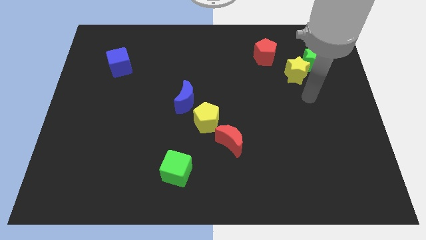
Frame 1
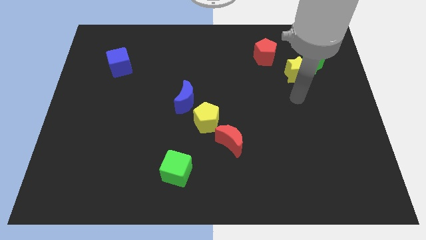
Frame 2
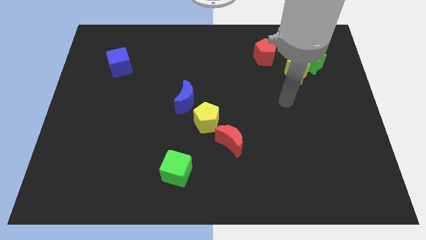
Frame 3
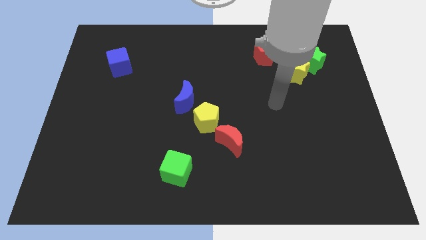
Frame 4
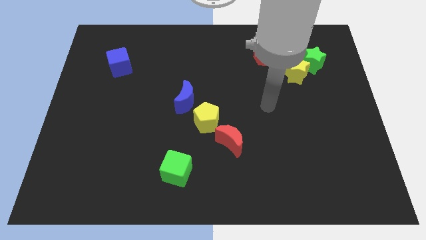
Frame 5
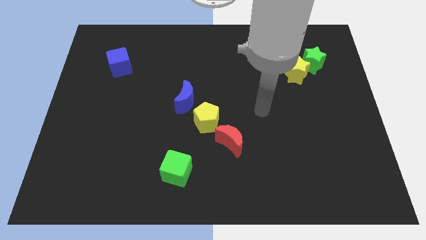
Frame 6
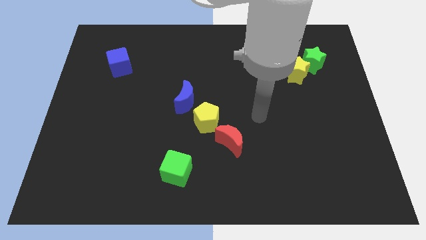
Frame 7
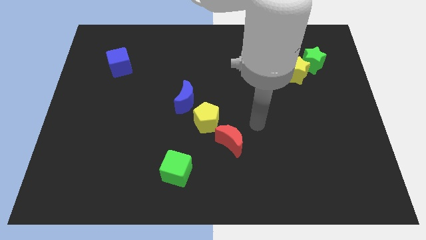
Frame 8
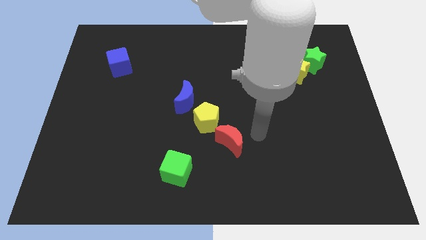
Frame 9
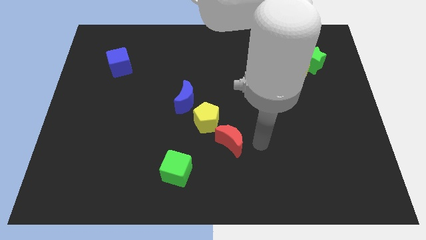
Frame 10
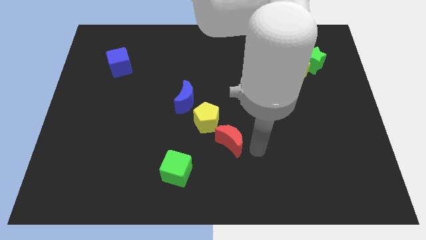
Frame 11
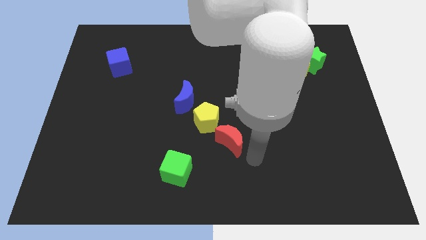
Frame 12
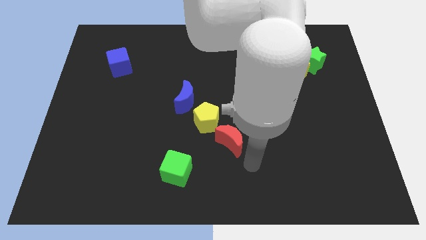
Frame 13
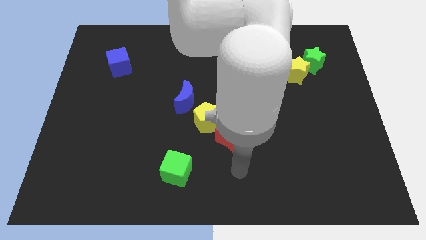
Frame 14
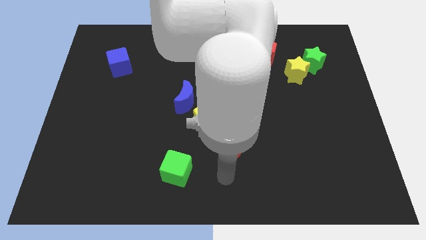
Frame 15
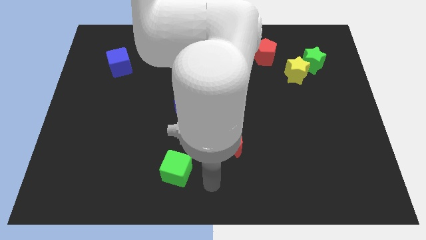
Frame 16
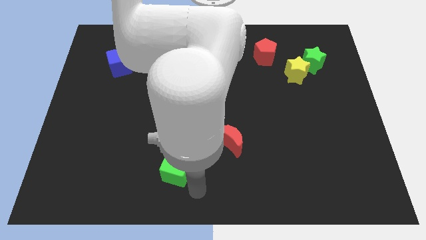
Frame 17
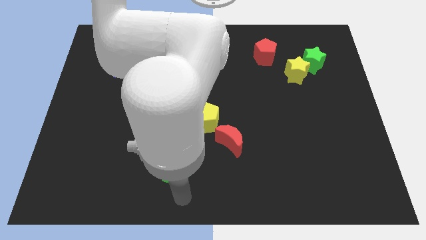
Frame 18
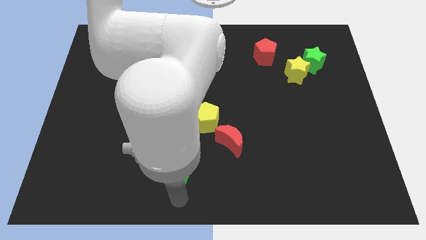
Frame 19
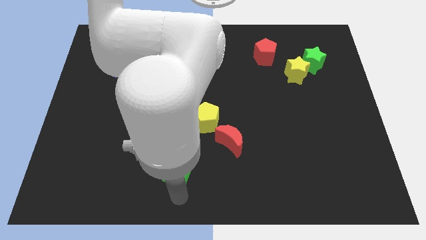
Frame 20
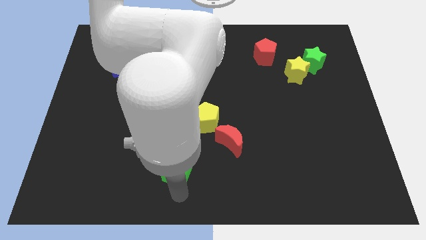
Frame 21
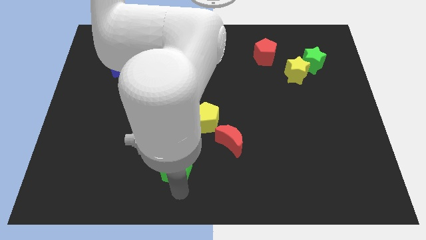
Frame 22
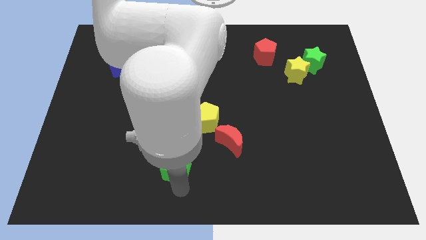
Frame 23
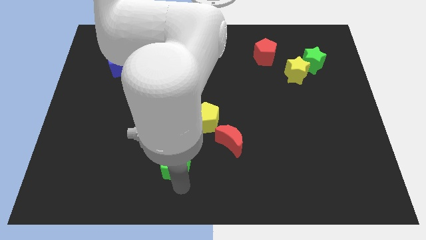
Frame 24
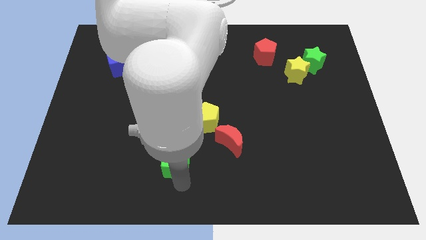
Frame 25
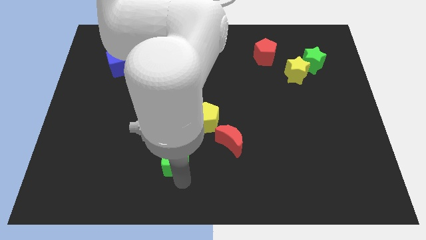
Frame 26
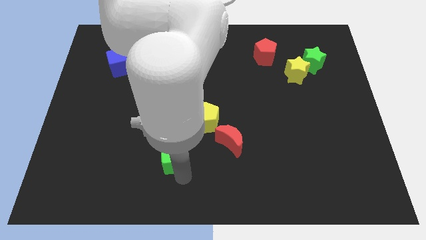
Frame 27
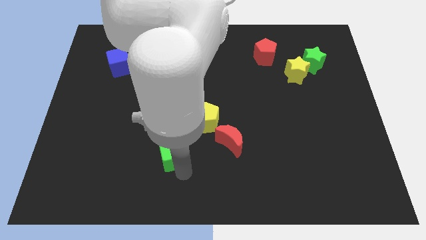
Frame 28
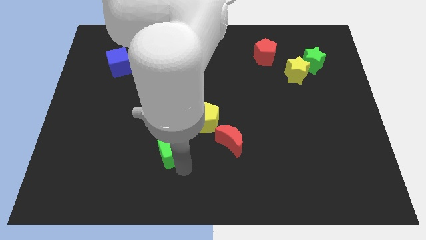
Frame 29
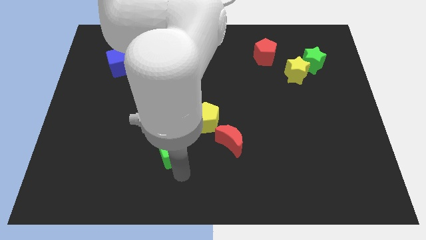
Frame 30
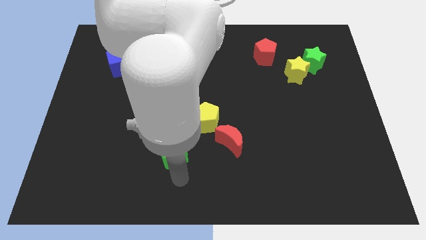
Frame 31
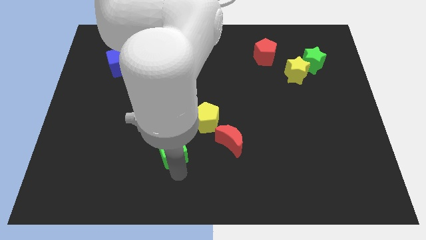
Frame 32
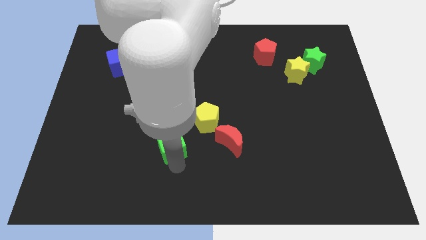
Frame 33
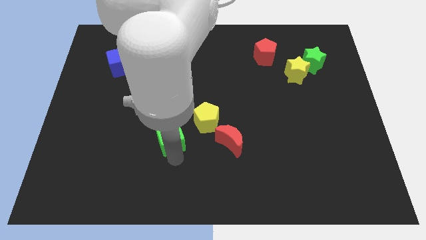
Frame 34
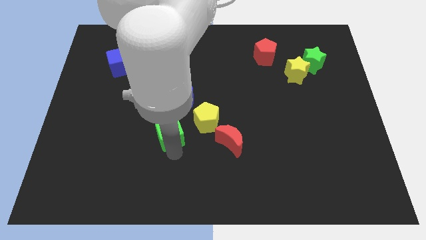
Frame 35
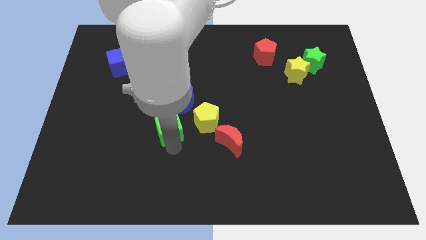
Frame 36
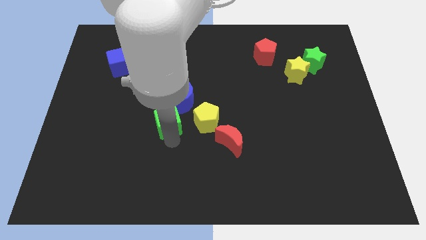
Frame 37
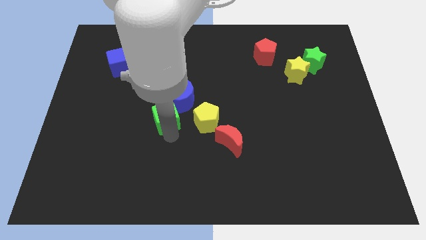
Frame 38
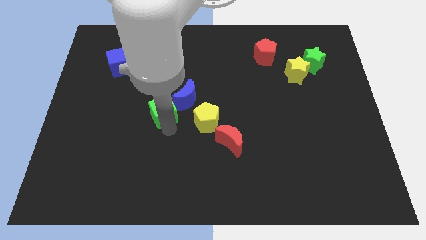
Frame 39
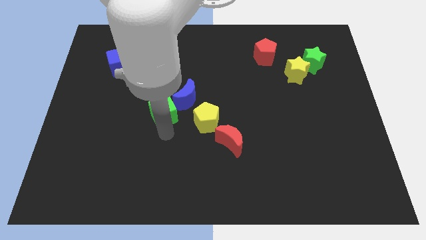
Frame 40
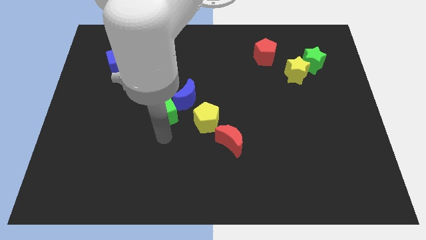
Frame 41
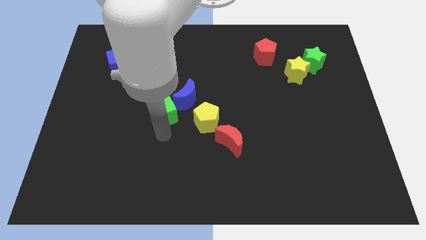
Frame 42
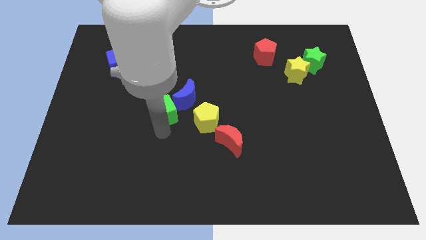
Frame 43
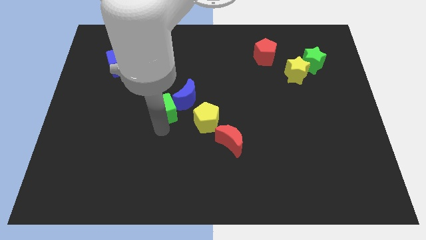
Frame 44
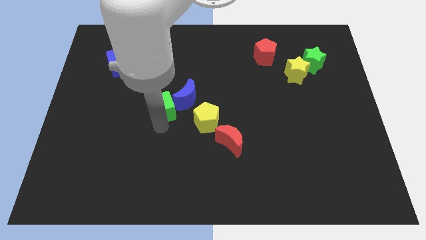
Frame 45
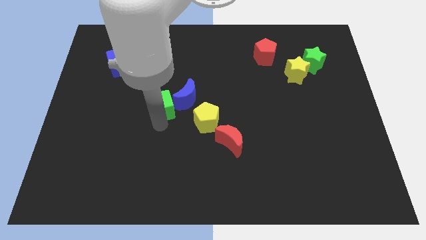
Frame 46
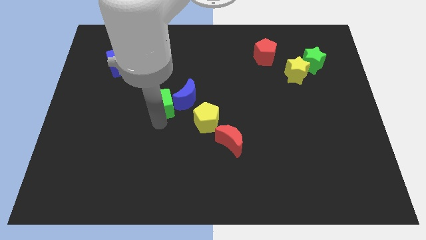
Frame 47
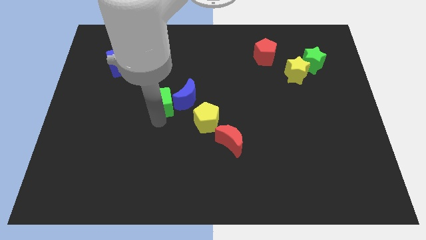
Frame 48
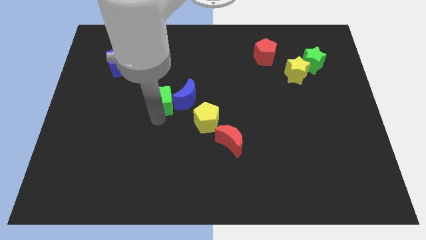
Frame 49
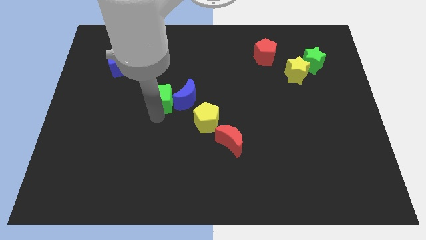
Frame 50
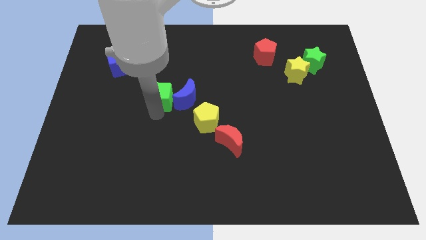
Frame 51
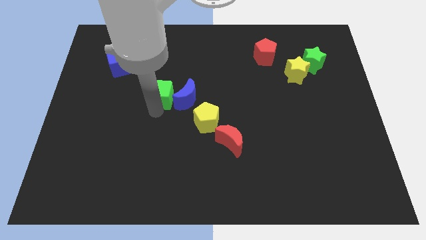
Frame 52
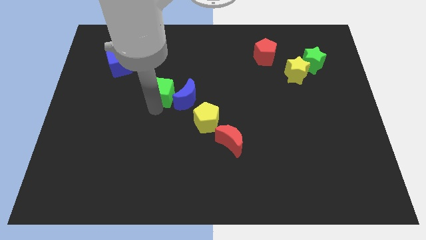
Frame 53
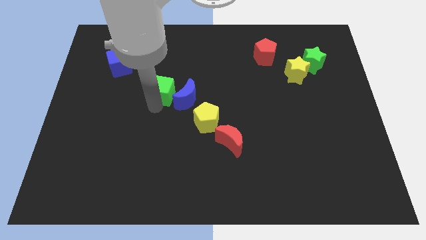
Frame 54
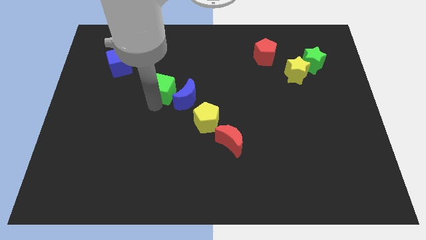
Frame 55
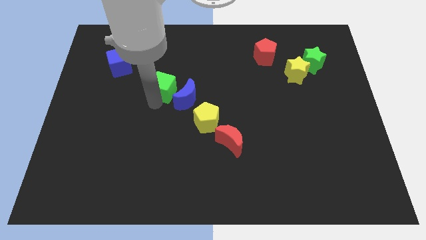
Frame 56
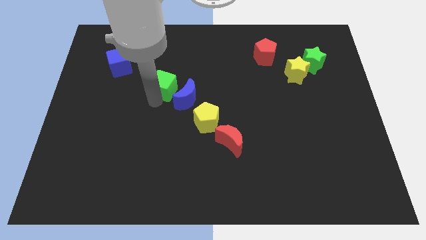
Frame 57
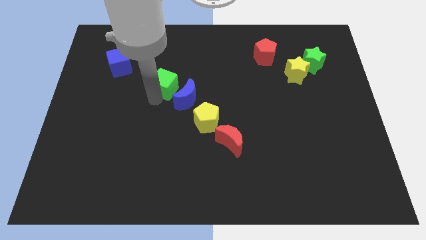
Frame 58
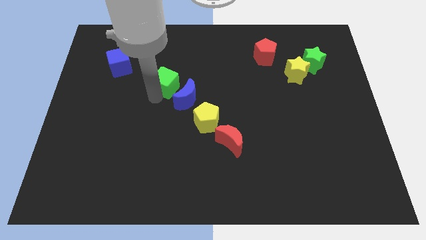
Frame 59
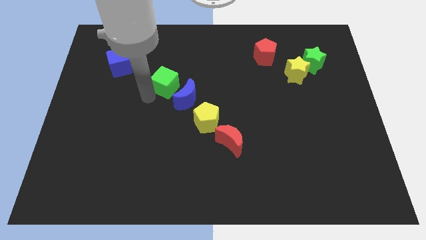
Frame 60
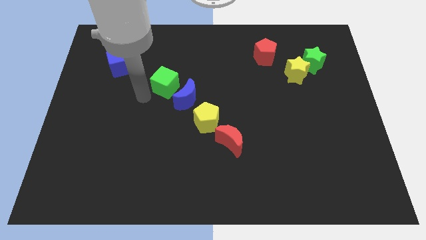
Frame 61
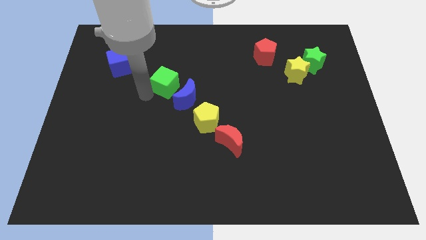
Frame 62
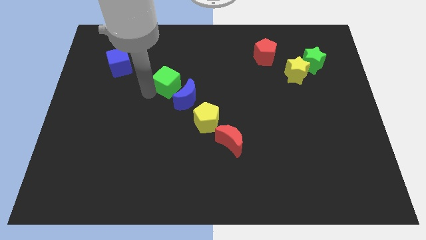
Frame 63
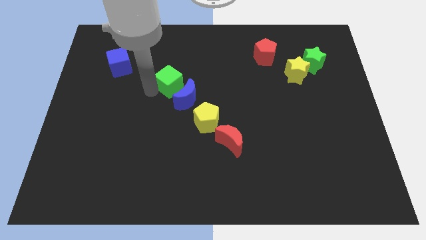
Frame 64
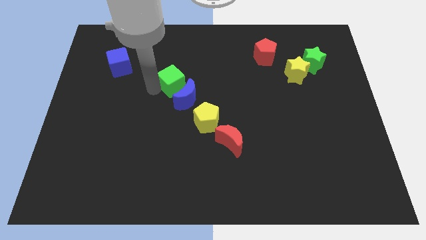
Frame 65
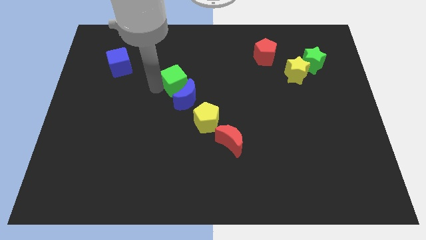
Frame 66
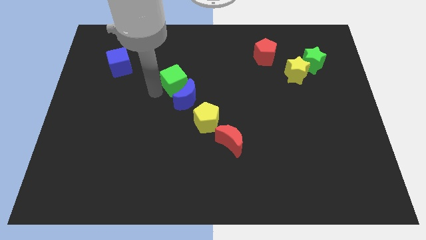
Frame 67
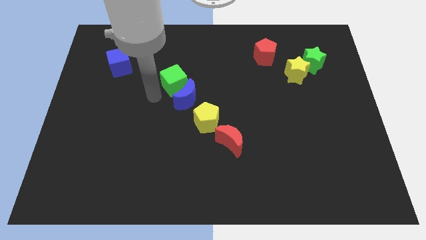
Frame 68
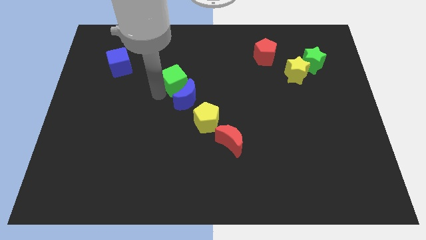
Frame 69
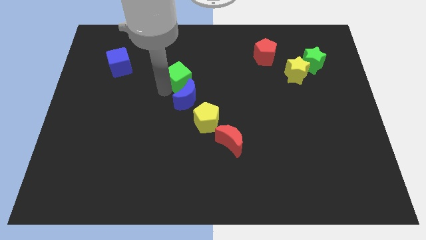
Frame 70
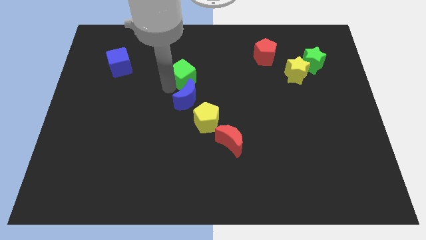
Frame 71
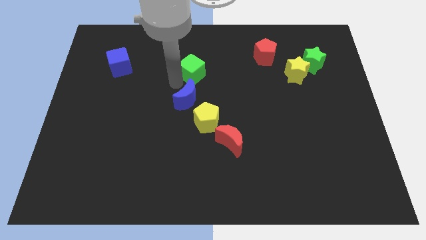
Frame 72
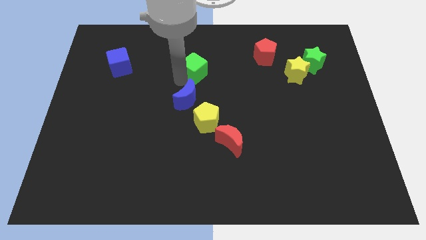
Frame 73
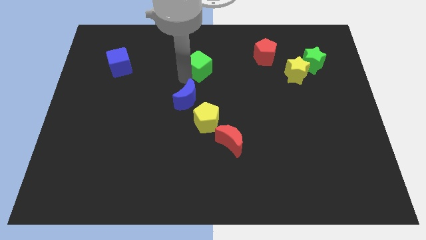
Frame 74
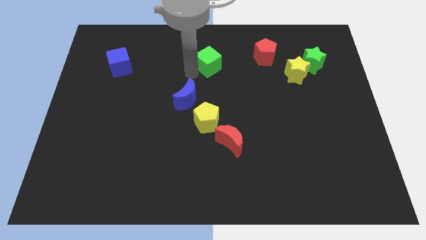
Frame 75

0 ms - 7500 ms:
move the green cube just left of the red pentagon
